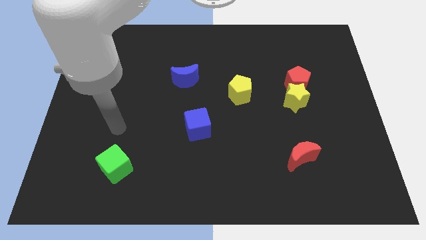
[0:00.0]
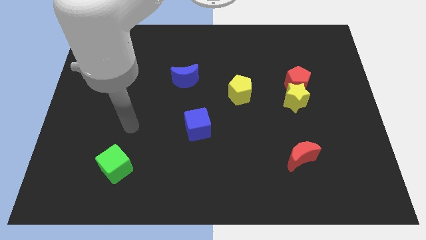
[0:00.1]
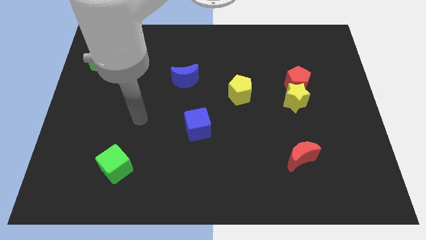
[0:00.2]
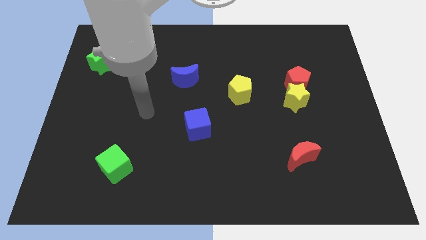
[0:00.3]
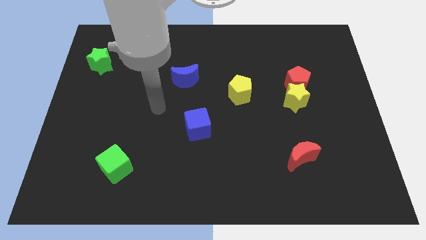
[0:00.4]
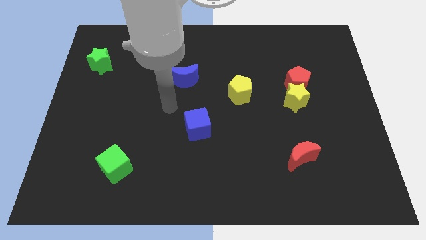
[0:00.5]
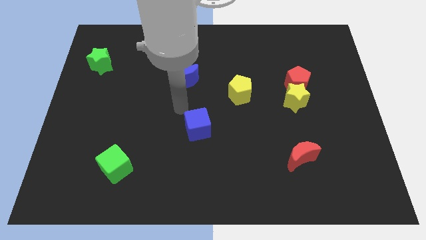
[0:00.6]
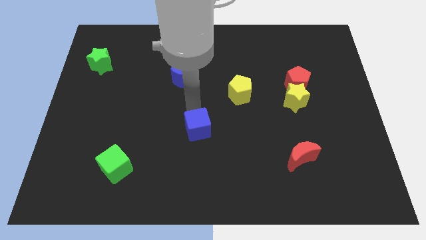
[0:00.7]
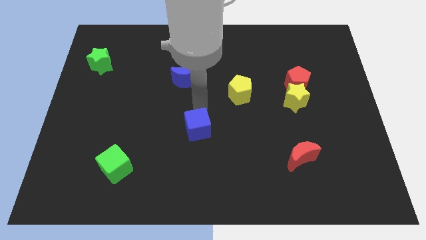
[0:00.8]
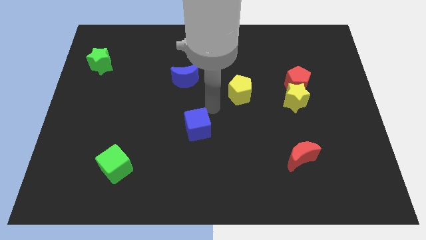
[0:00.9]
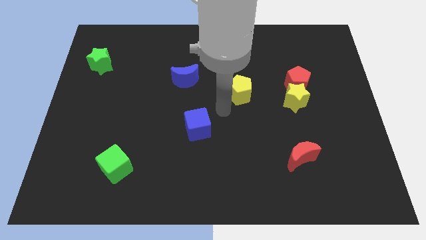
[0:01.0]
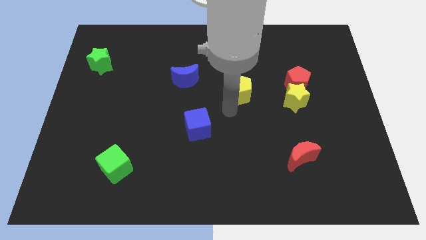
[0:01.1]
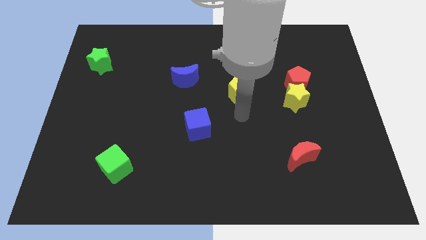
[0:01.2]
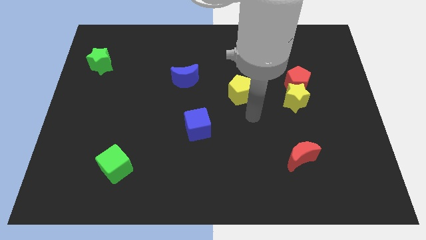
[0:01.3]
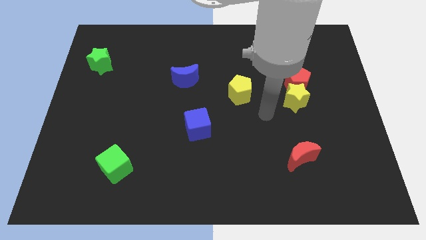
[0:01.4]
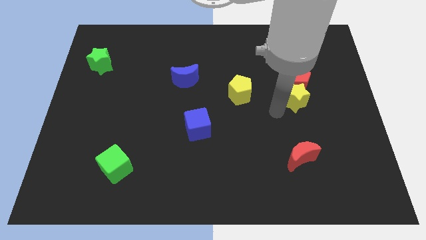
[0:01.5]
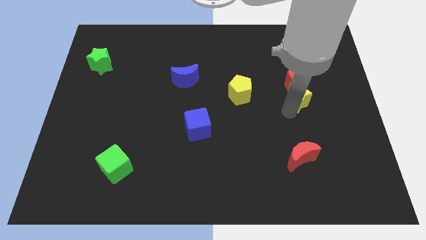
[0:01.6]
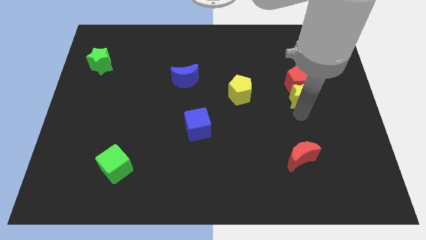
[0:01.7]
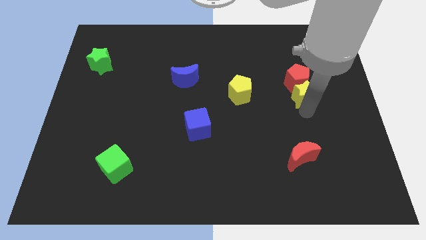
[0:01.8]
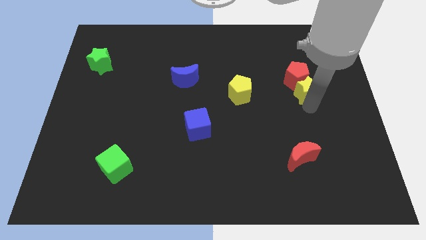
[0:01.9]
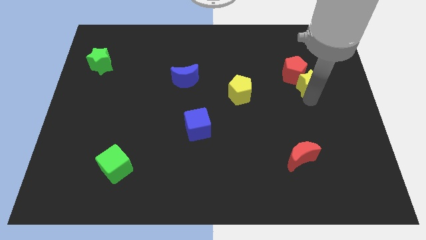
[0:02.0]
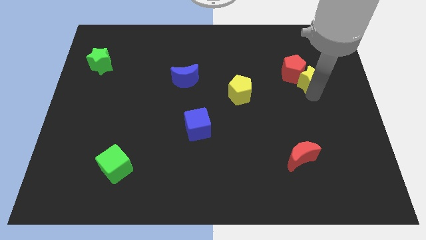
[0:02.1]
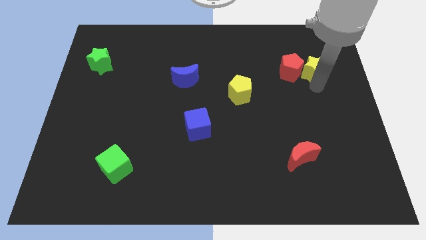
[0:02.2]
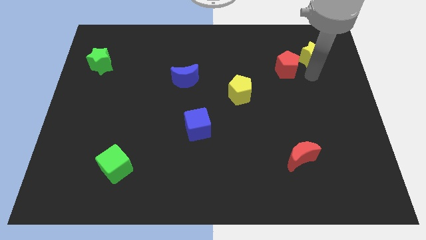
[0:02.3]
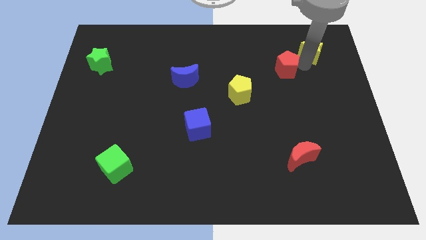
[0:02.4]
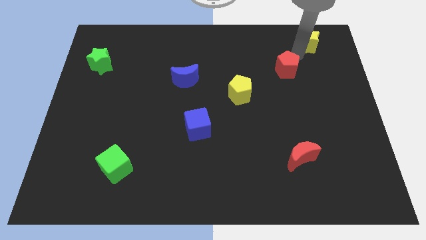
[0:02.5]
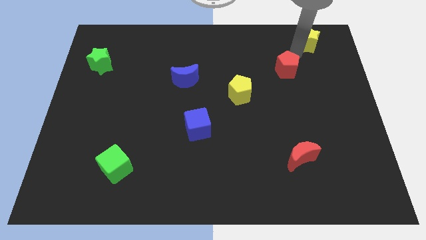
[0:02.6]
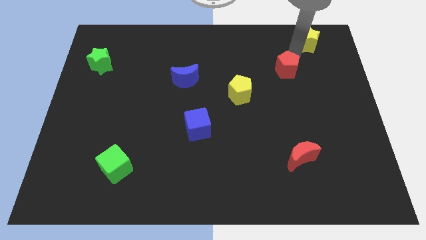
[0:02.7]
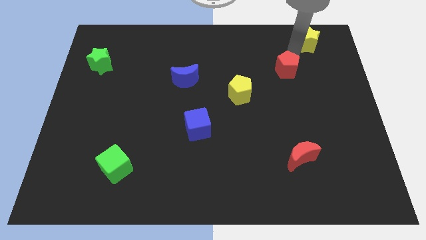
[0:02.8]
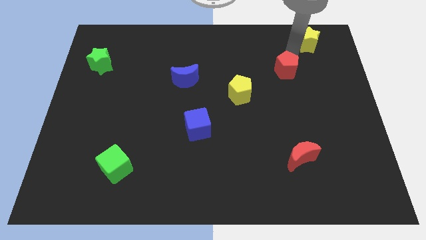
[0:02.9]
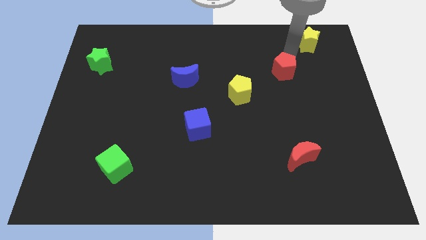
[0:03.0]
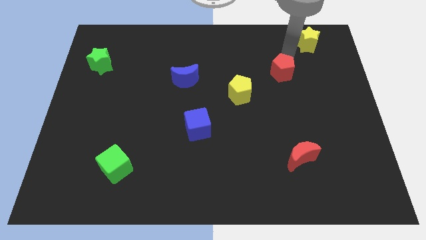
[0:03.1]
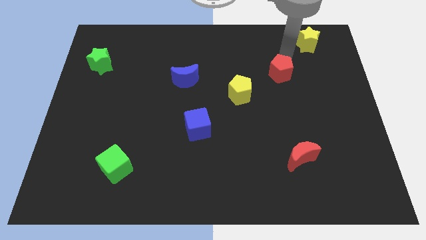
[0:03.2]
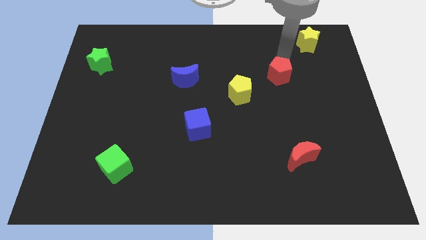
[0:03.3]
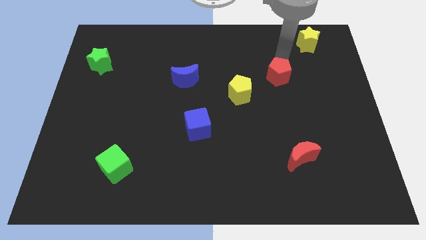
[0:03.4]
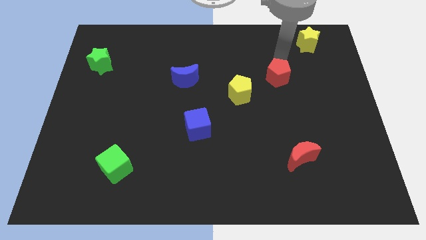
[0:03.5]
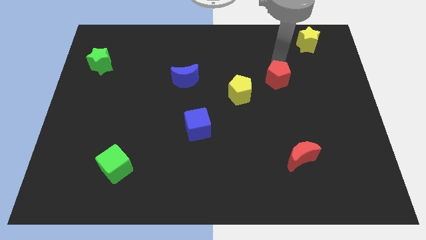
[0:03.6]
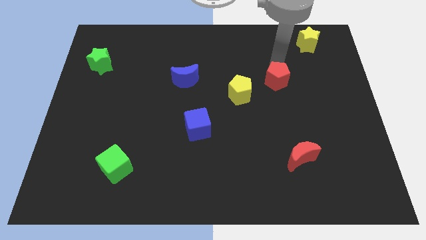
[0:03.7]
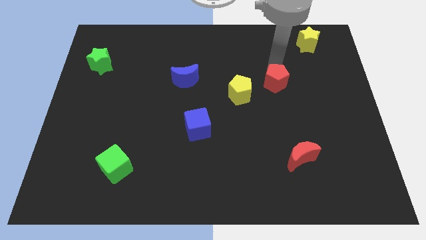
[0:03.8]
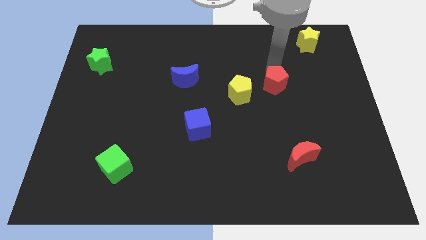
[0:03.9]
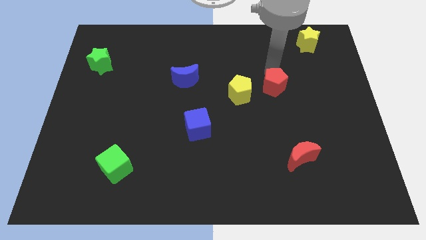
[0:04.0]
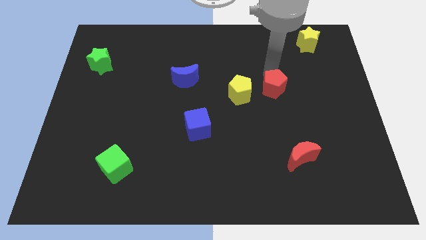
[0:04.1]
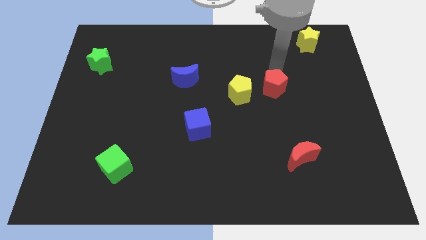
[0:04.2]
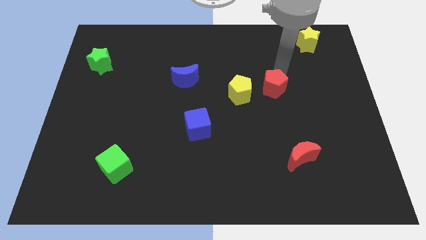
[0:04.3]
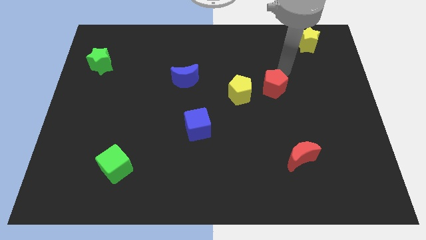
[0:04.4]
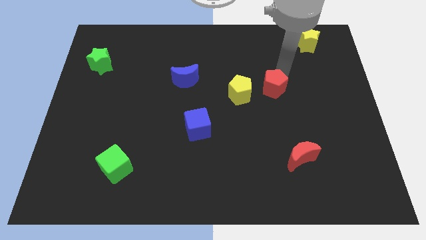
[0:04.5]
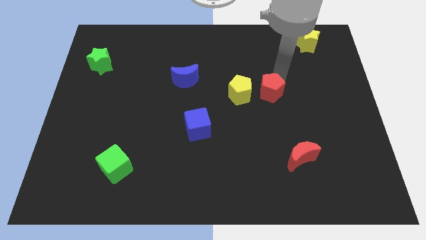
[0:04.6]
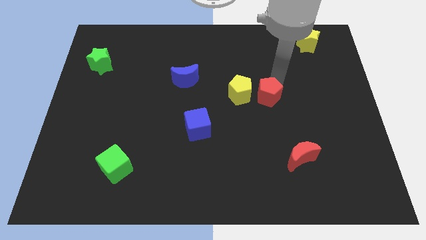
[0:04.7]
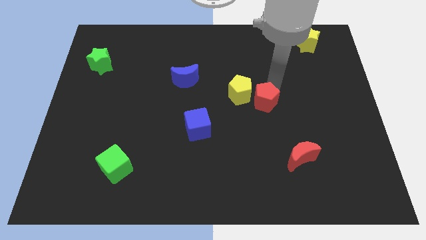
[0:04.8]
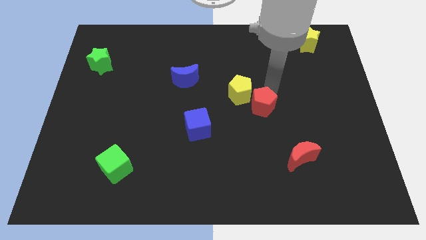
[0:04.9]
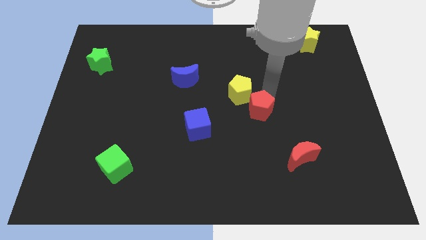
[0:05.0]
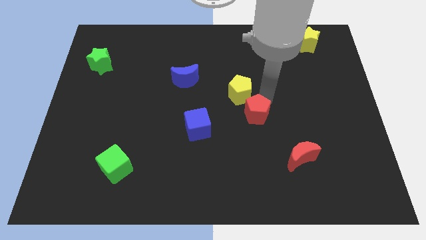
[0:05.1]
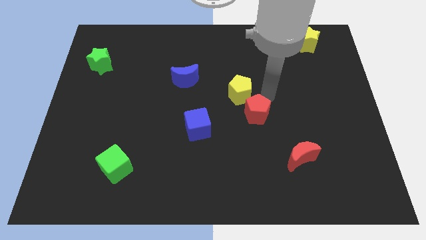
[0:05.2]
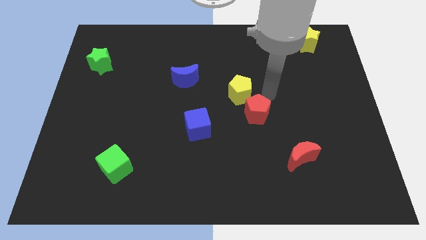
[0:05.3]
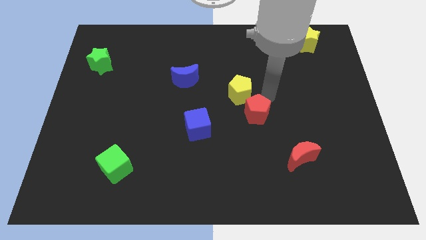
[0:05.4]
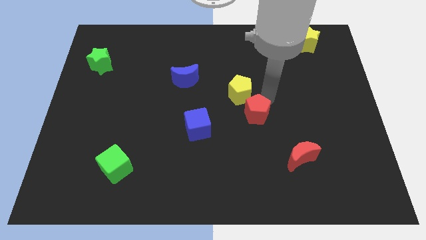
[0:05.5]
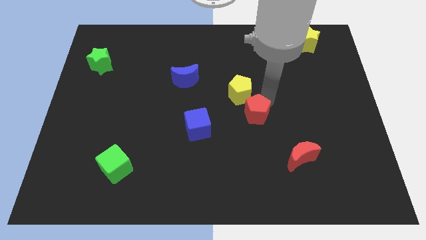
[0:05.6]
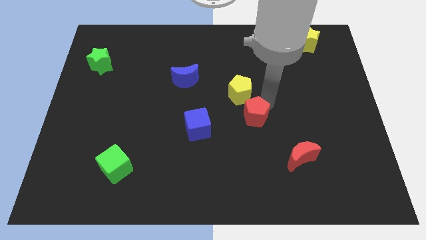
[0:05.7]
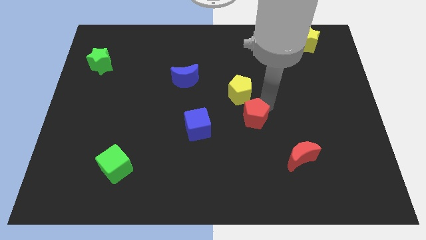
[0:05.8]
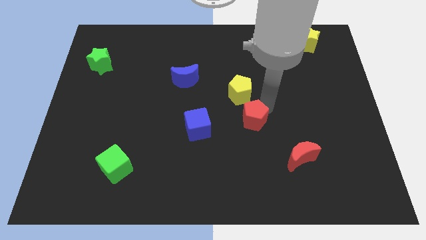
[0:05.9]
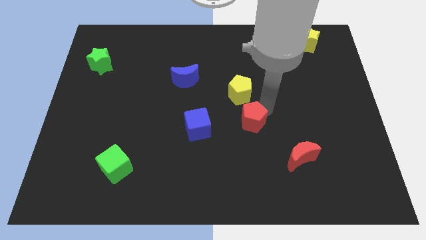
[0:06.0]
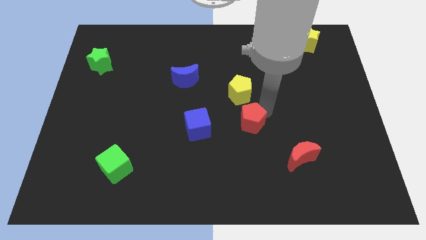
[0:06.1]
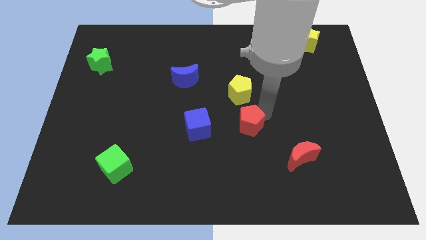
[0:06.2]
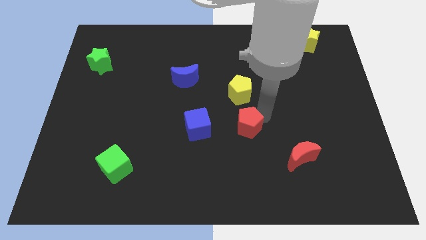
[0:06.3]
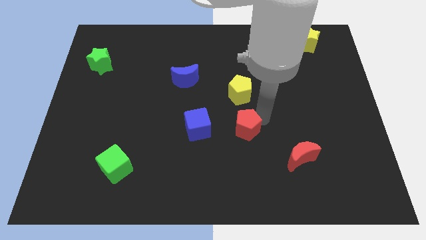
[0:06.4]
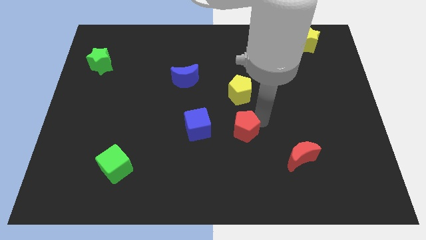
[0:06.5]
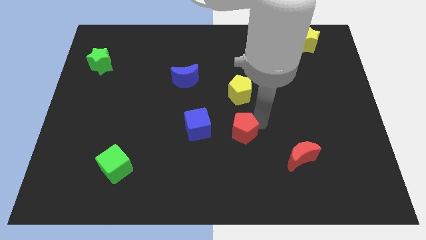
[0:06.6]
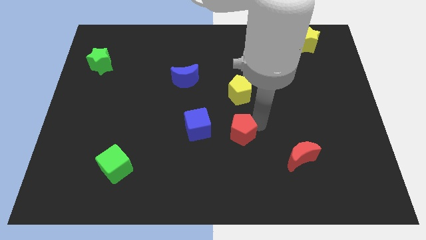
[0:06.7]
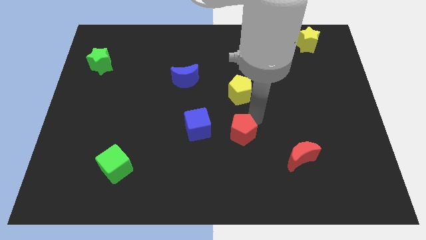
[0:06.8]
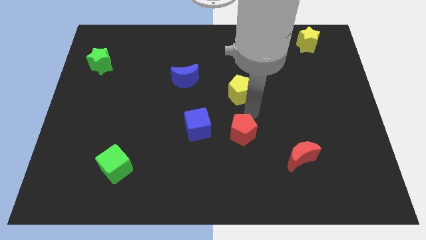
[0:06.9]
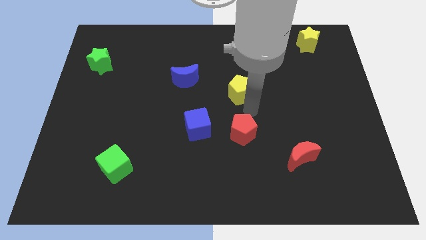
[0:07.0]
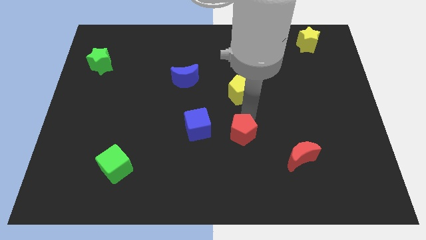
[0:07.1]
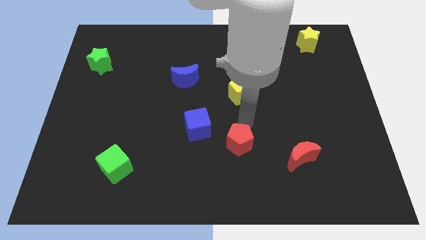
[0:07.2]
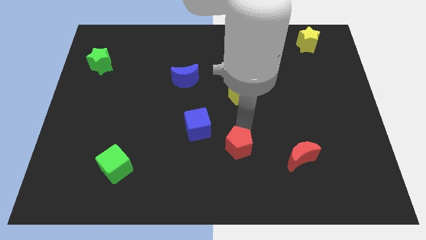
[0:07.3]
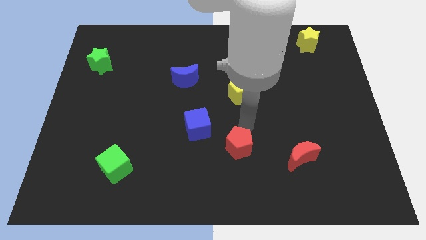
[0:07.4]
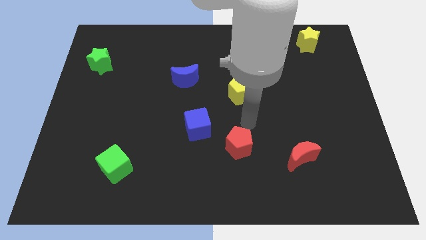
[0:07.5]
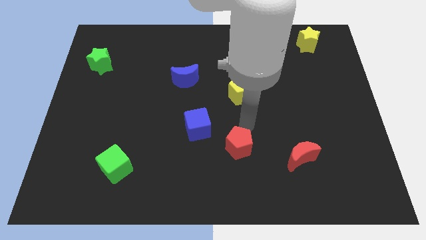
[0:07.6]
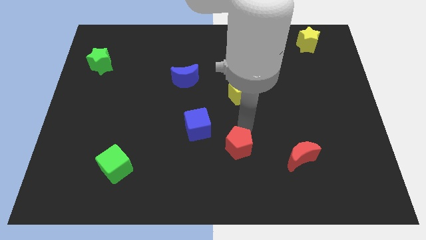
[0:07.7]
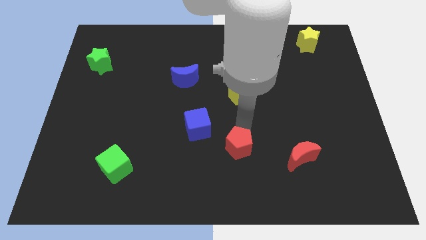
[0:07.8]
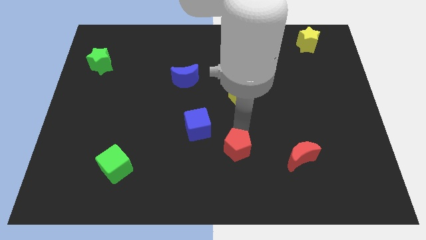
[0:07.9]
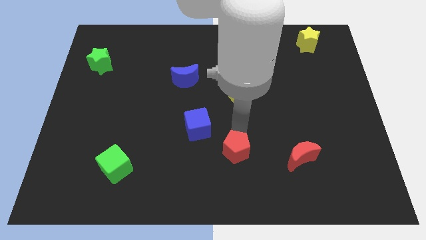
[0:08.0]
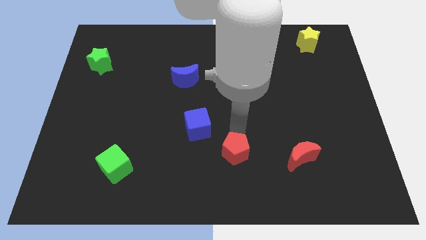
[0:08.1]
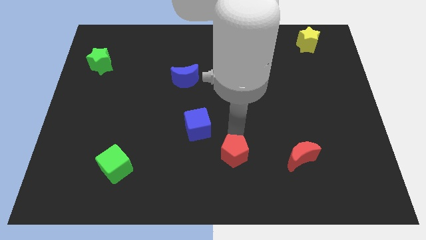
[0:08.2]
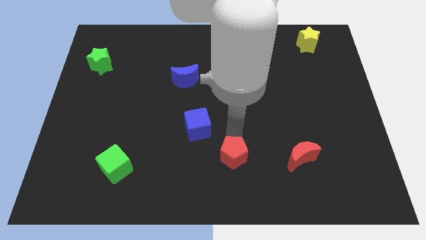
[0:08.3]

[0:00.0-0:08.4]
slide the red pentagon to the bottom side

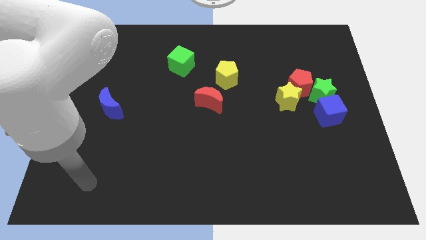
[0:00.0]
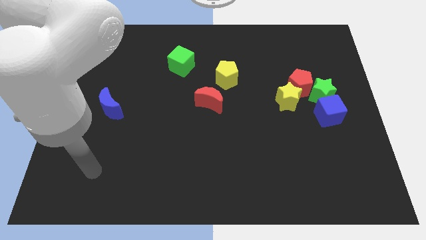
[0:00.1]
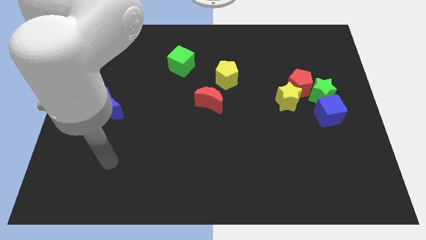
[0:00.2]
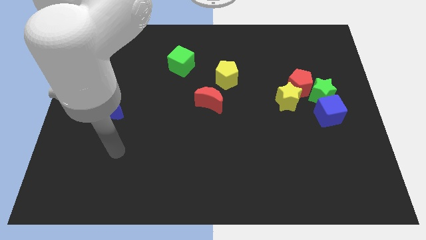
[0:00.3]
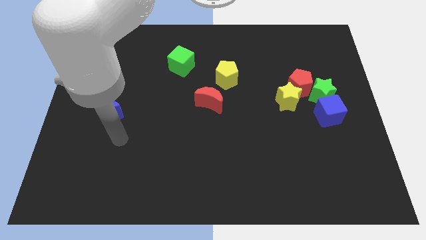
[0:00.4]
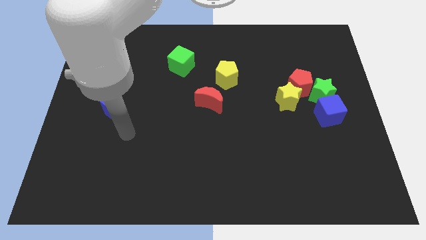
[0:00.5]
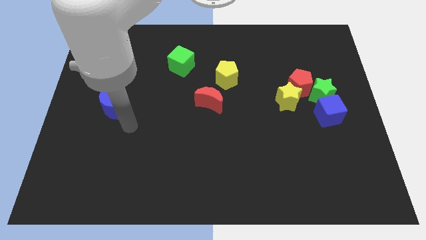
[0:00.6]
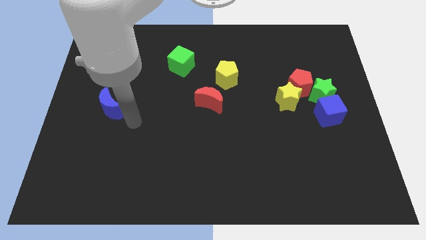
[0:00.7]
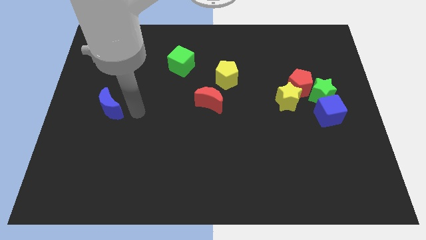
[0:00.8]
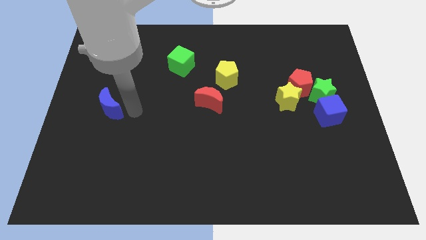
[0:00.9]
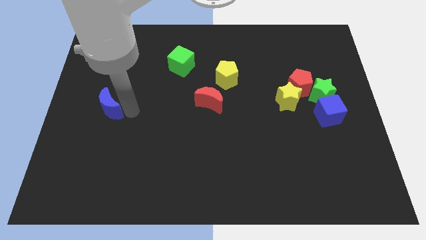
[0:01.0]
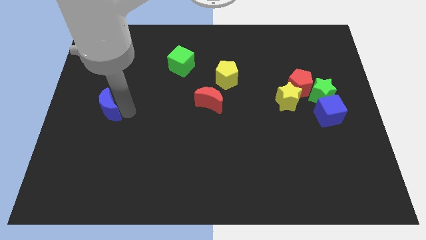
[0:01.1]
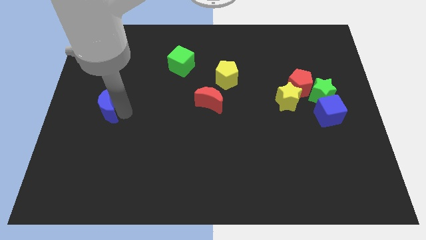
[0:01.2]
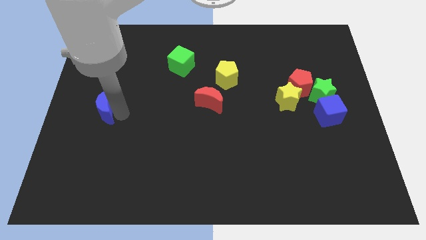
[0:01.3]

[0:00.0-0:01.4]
slide the blue moon to the center left
